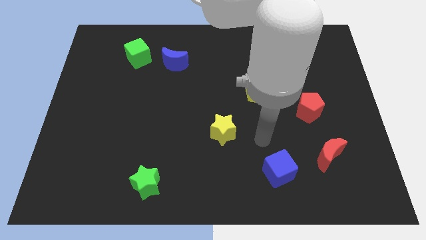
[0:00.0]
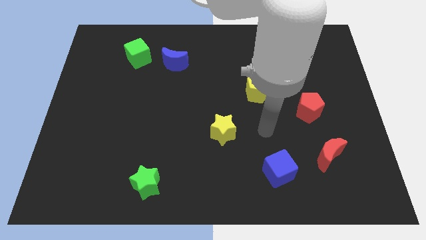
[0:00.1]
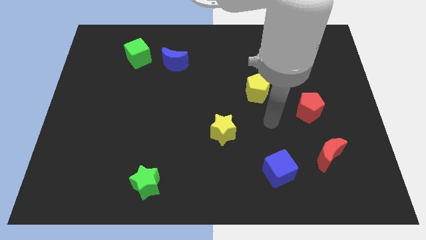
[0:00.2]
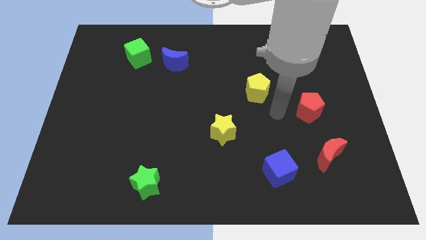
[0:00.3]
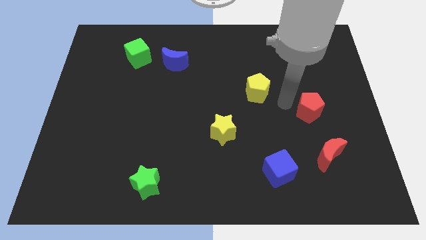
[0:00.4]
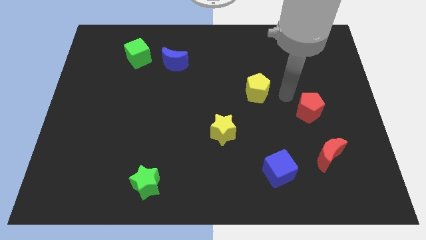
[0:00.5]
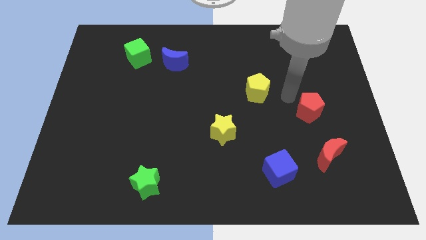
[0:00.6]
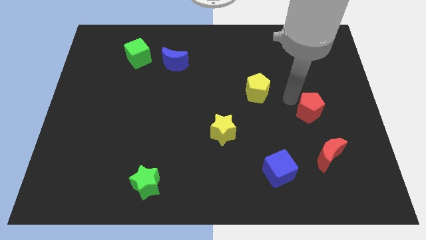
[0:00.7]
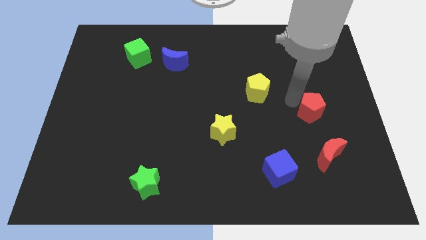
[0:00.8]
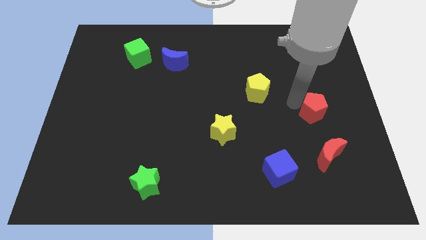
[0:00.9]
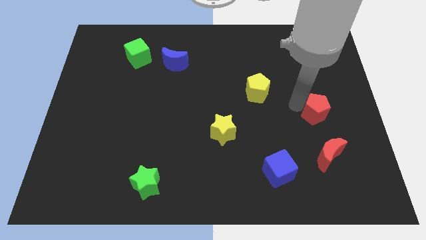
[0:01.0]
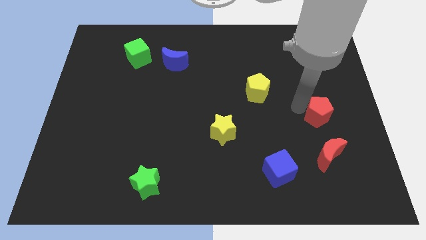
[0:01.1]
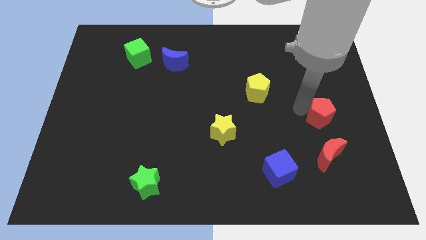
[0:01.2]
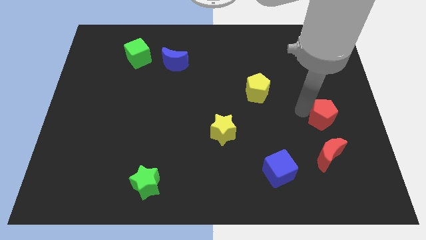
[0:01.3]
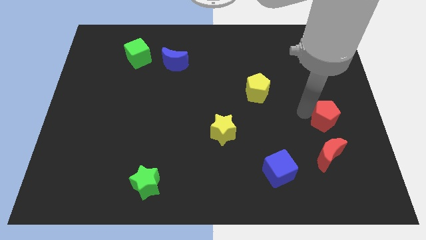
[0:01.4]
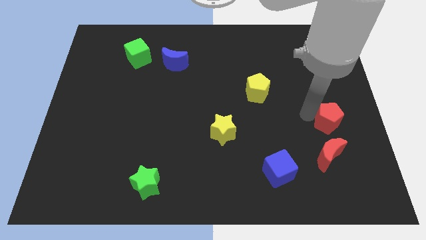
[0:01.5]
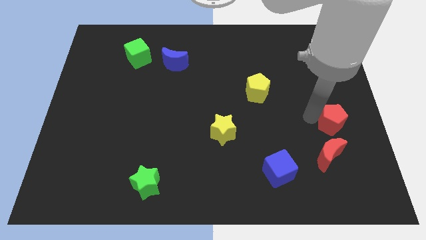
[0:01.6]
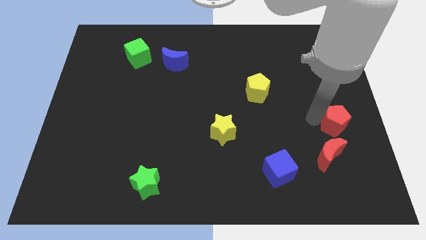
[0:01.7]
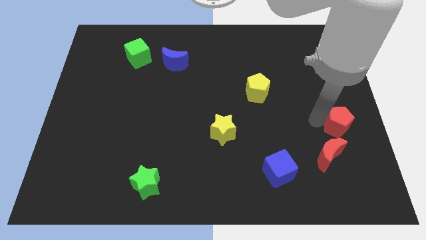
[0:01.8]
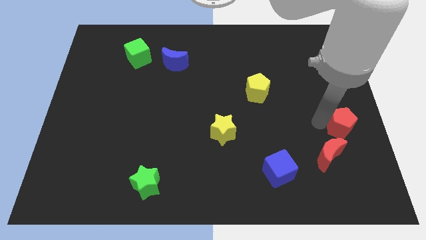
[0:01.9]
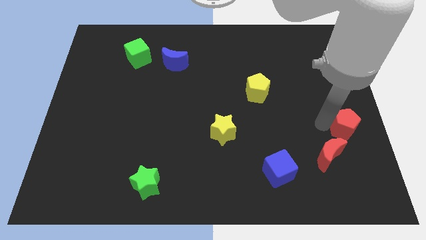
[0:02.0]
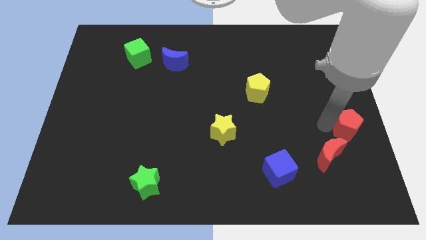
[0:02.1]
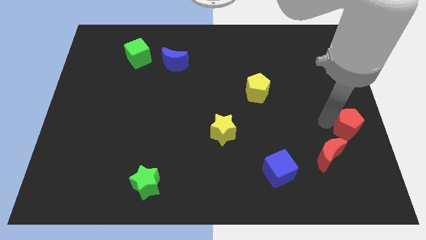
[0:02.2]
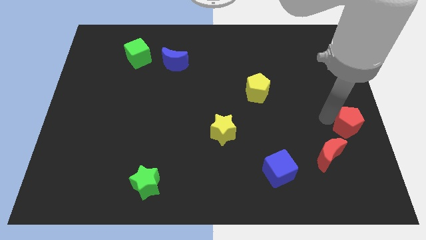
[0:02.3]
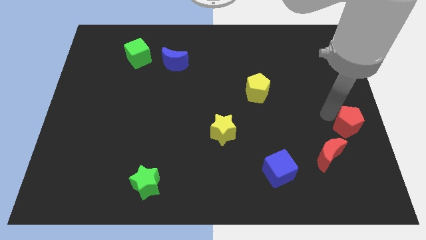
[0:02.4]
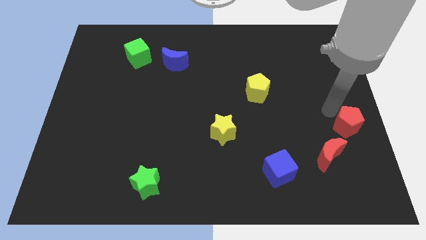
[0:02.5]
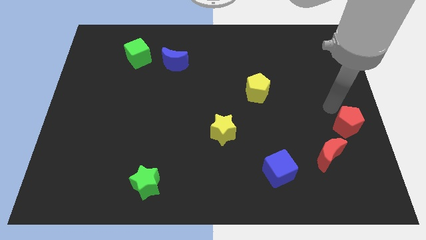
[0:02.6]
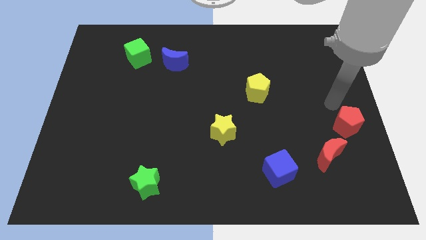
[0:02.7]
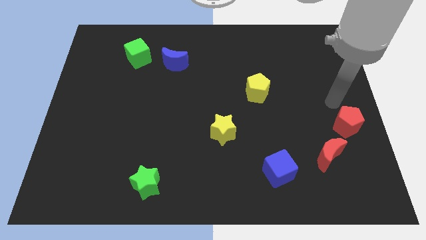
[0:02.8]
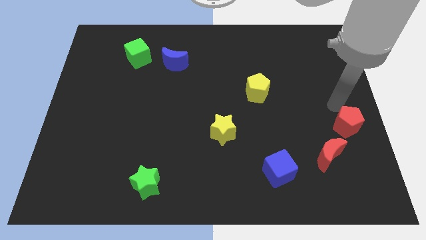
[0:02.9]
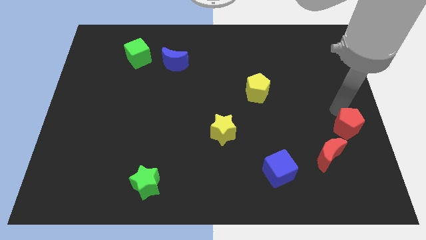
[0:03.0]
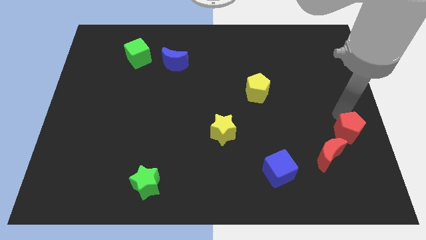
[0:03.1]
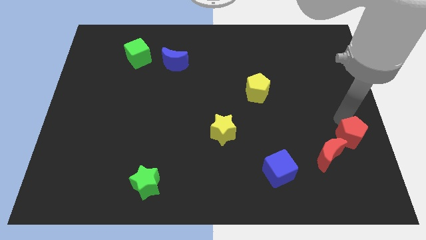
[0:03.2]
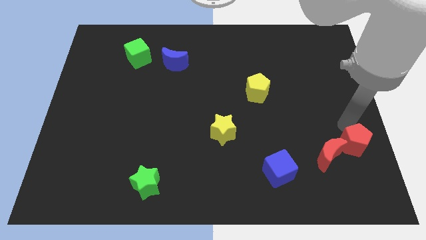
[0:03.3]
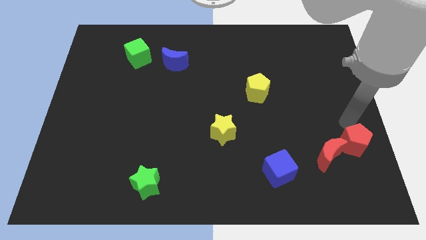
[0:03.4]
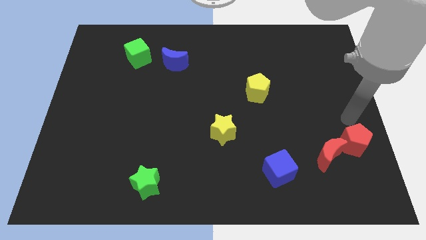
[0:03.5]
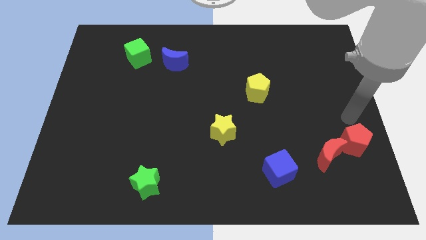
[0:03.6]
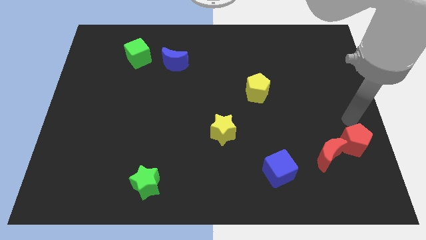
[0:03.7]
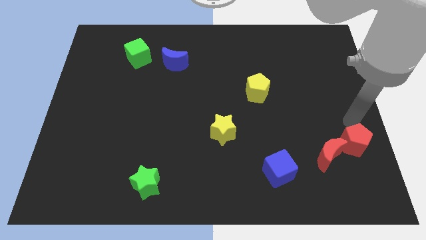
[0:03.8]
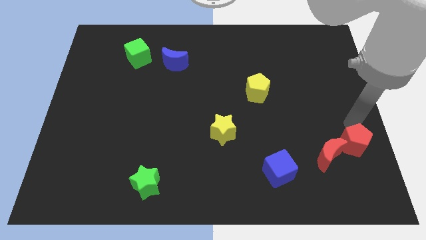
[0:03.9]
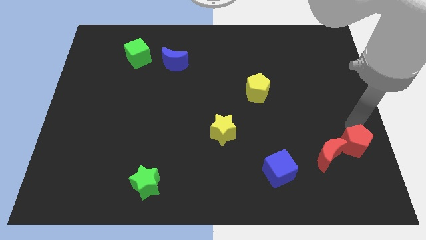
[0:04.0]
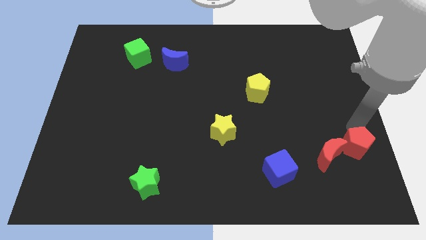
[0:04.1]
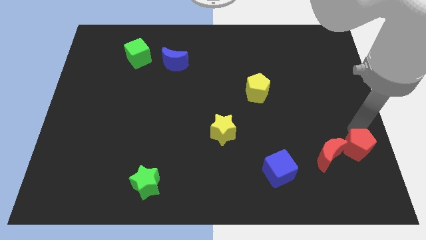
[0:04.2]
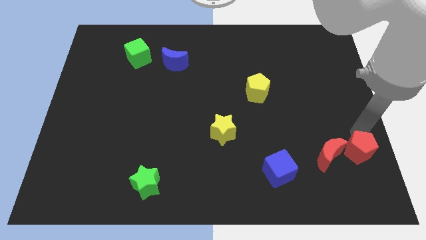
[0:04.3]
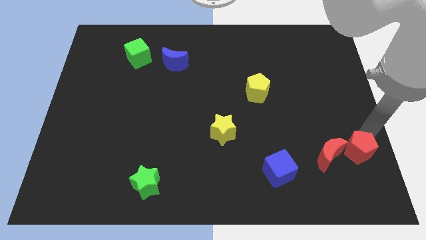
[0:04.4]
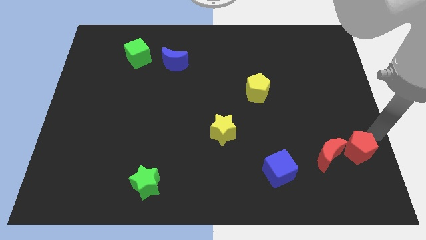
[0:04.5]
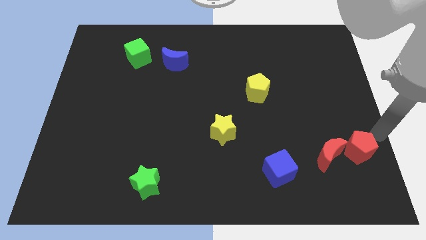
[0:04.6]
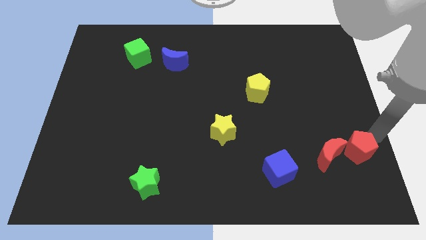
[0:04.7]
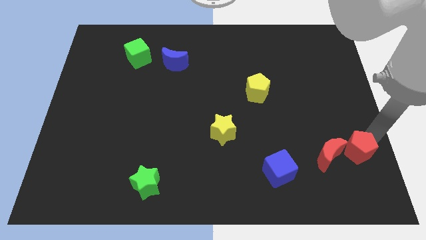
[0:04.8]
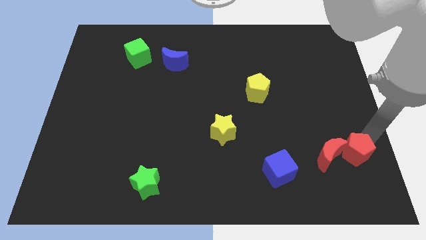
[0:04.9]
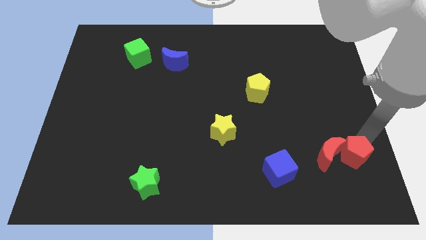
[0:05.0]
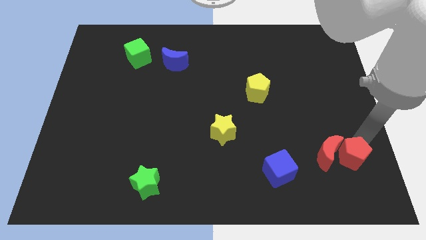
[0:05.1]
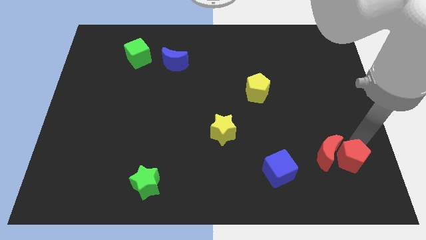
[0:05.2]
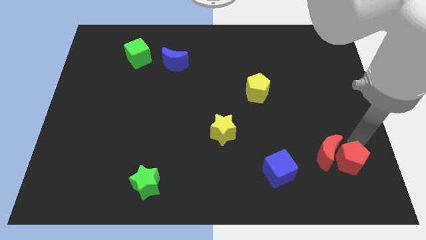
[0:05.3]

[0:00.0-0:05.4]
push the red pentagon just right of the blue cube

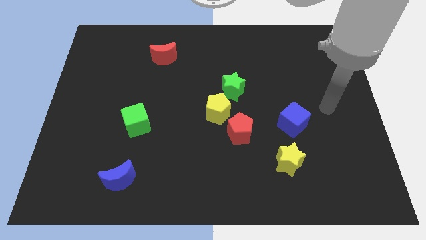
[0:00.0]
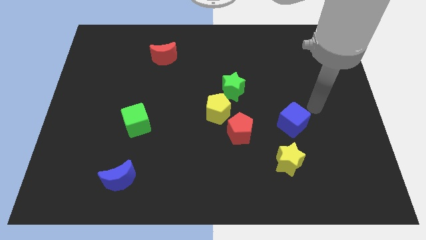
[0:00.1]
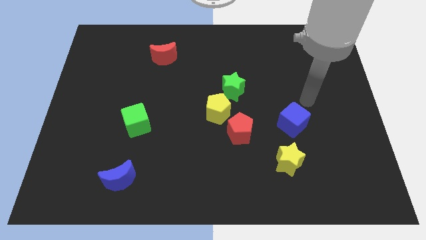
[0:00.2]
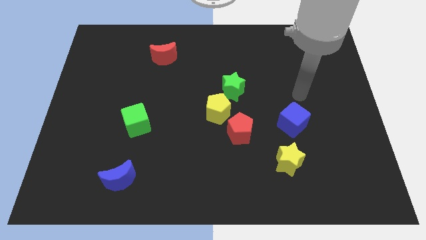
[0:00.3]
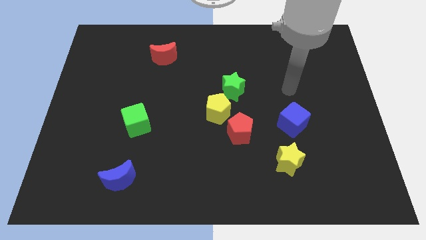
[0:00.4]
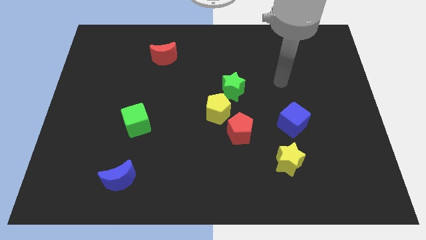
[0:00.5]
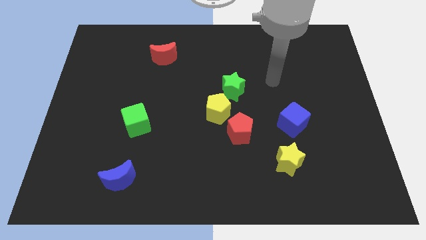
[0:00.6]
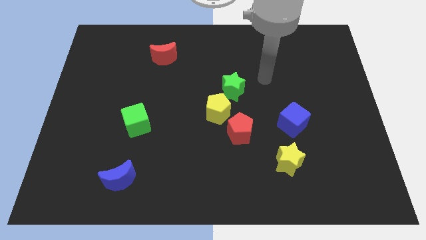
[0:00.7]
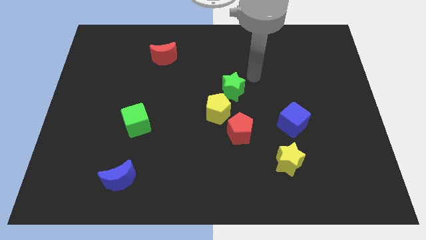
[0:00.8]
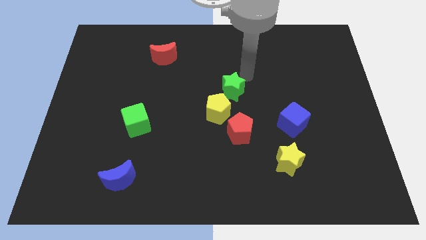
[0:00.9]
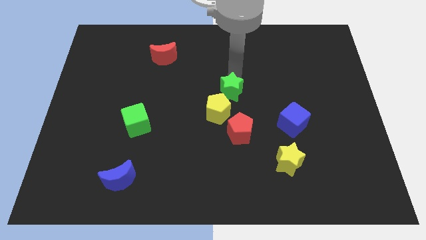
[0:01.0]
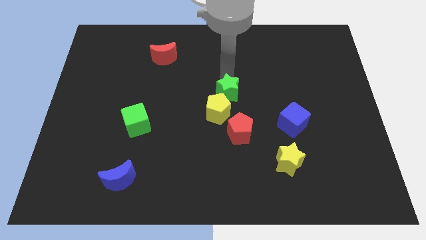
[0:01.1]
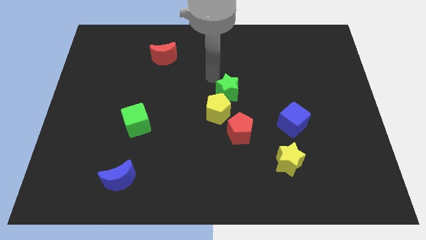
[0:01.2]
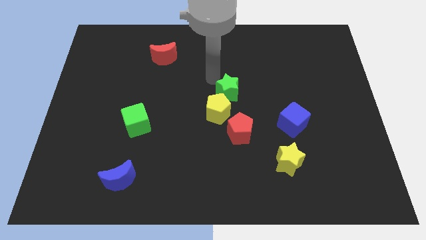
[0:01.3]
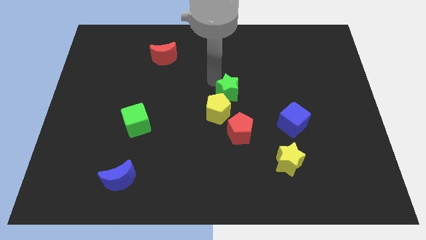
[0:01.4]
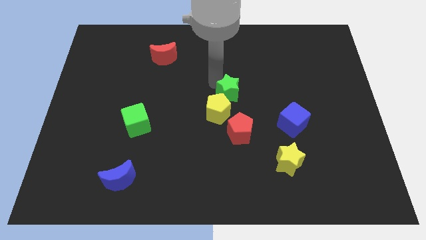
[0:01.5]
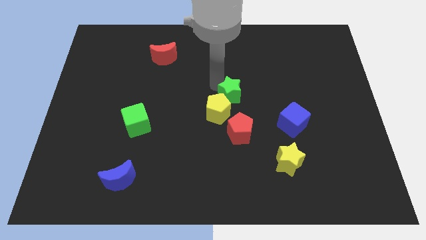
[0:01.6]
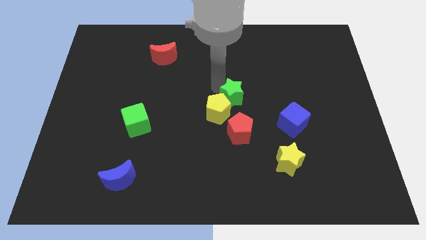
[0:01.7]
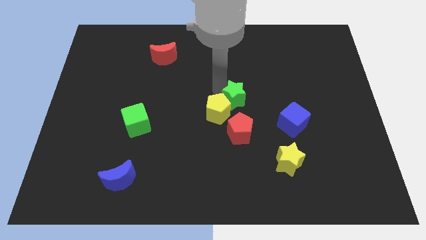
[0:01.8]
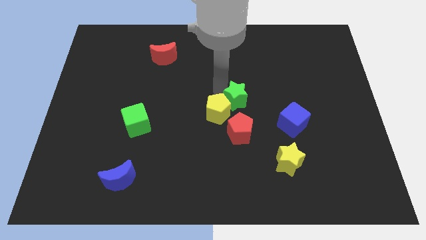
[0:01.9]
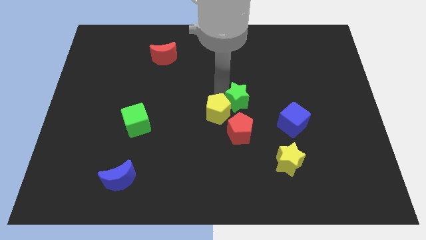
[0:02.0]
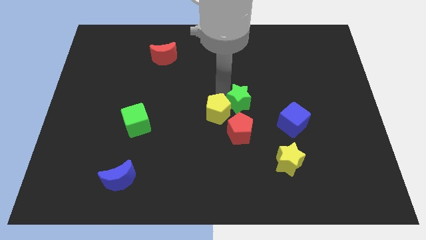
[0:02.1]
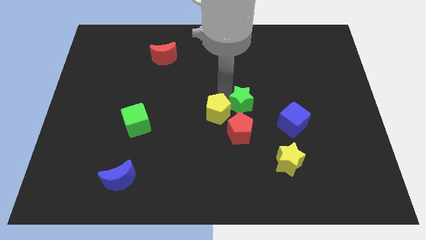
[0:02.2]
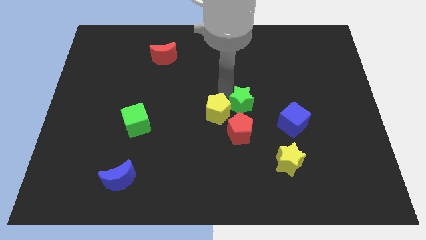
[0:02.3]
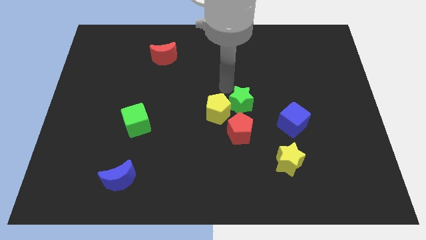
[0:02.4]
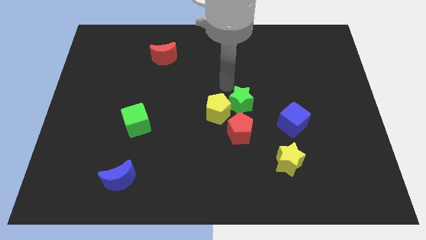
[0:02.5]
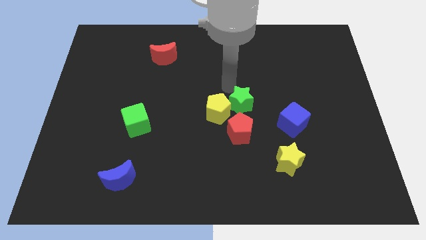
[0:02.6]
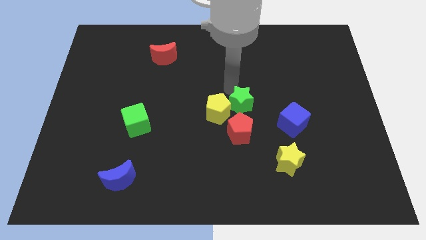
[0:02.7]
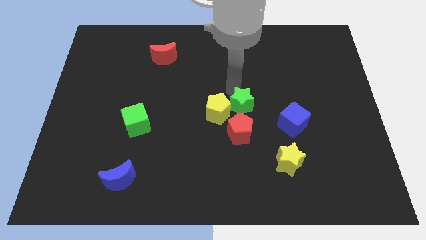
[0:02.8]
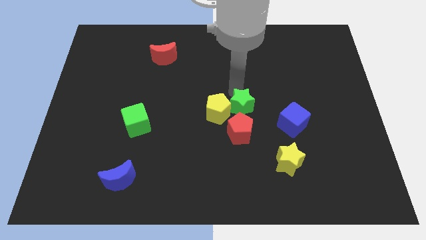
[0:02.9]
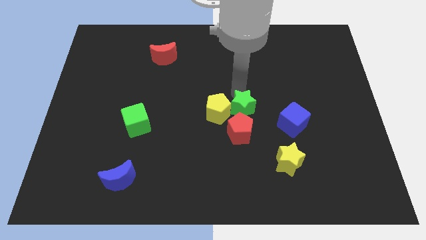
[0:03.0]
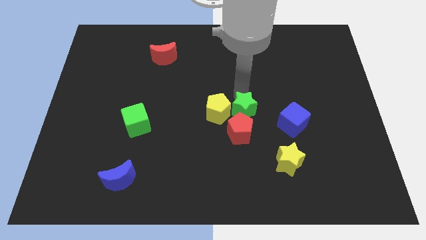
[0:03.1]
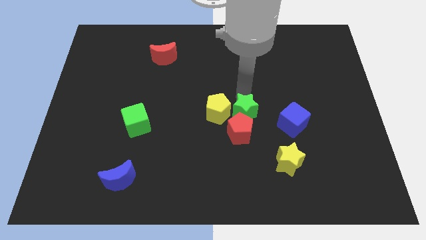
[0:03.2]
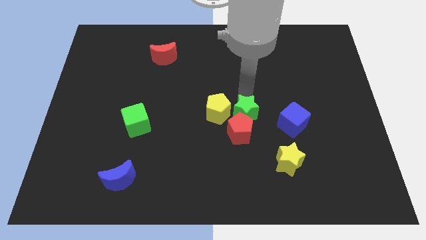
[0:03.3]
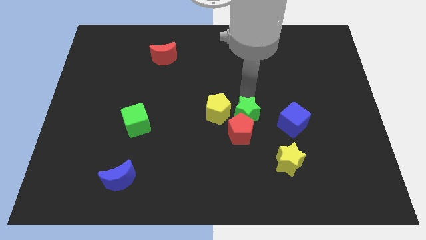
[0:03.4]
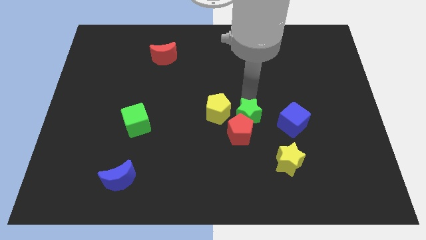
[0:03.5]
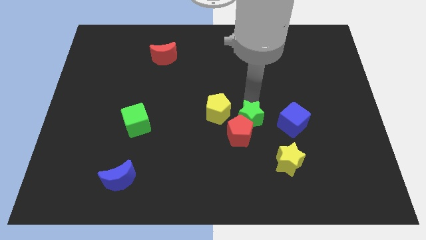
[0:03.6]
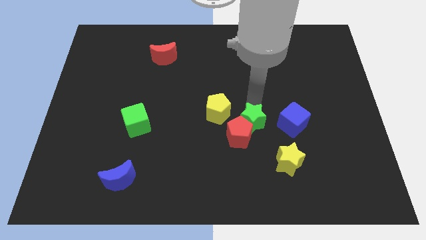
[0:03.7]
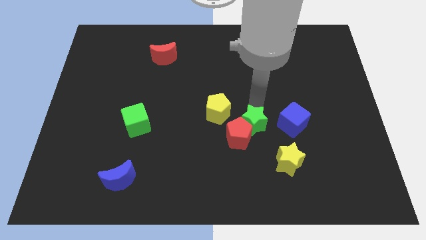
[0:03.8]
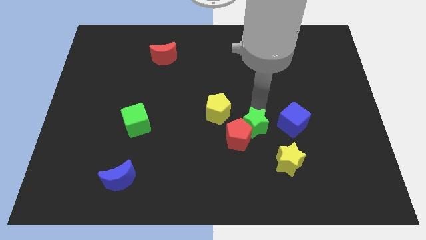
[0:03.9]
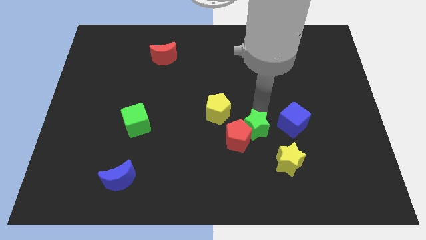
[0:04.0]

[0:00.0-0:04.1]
slide the green star to the bottom left of the blue cube
